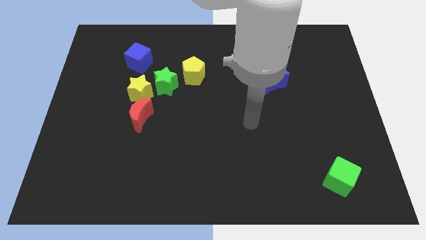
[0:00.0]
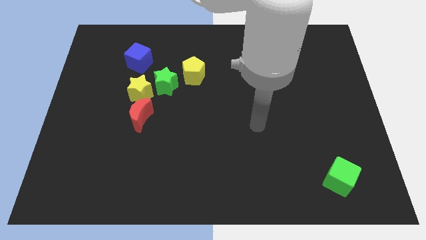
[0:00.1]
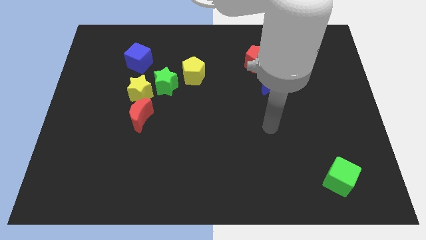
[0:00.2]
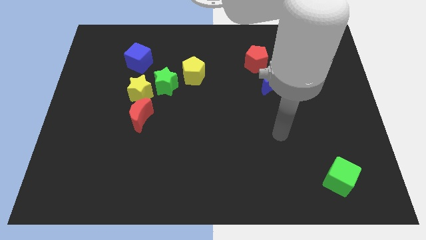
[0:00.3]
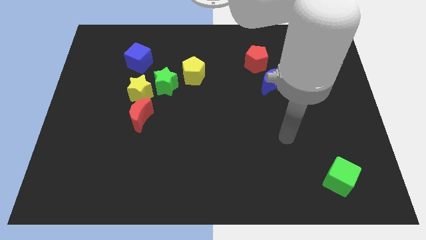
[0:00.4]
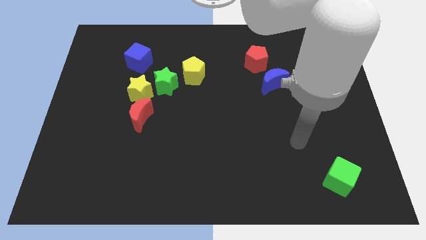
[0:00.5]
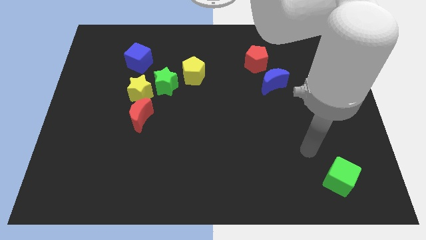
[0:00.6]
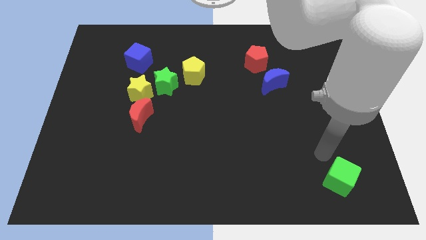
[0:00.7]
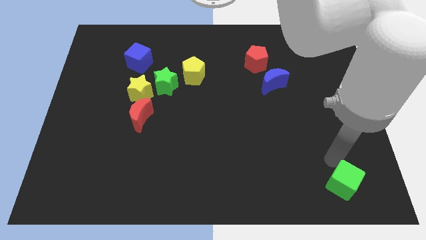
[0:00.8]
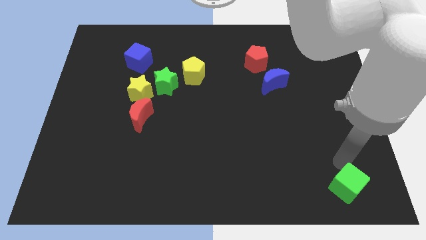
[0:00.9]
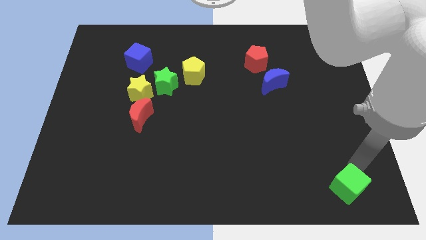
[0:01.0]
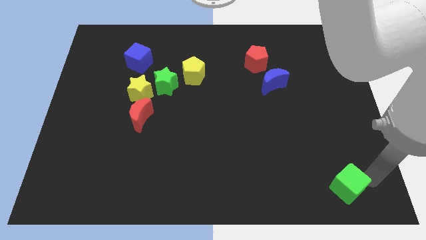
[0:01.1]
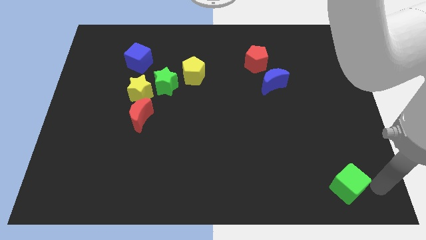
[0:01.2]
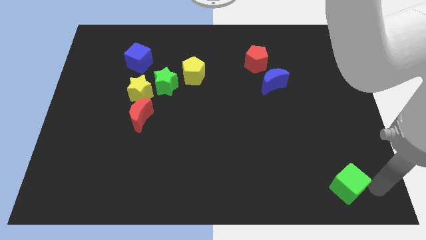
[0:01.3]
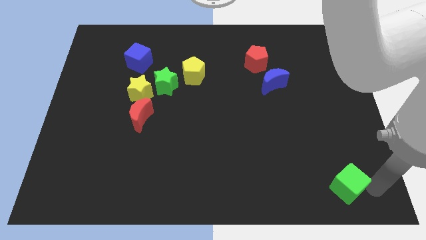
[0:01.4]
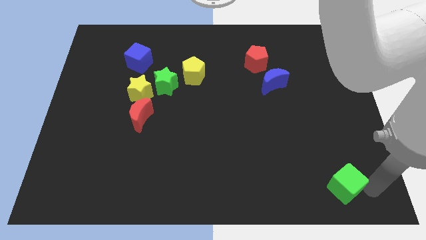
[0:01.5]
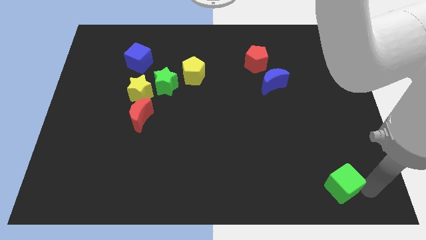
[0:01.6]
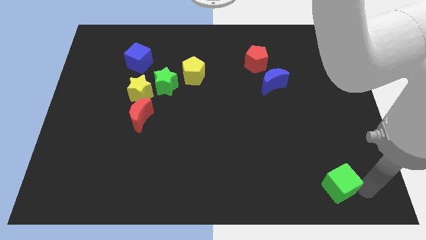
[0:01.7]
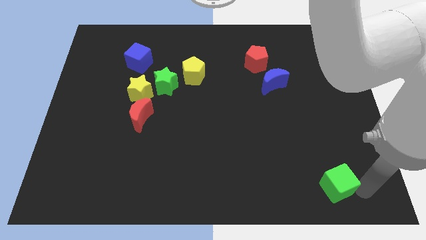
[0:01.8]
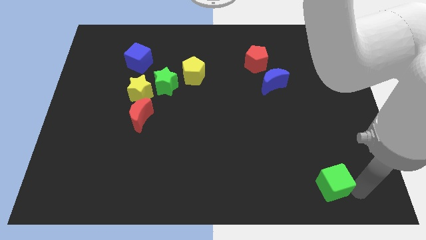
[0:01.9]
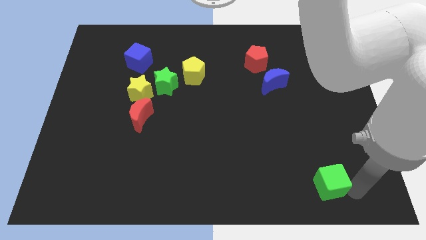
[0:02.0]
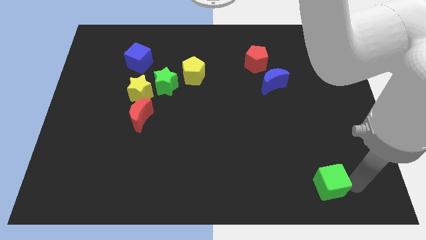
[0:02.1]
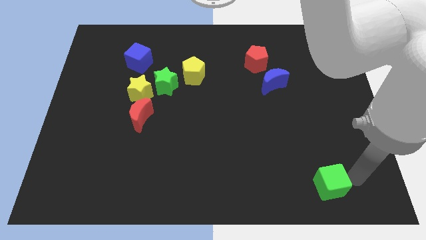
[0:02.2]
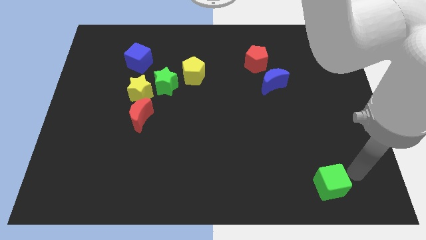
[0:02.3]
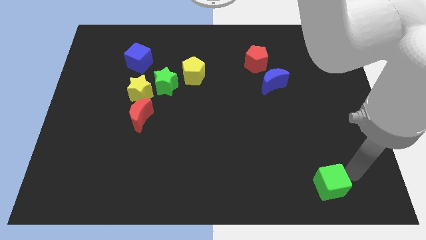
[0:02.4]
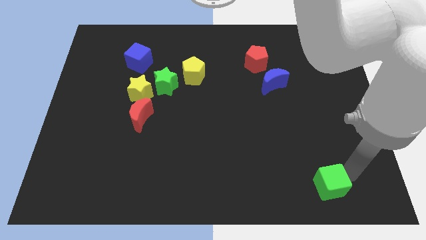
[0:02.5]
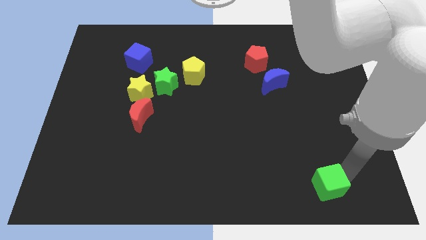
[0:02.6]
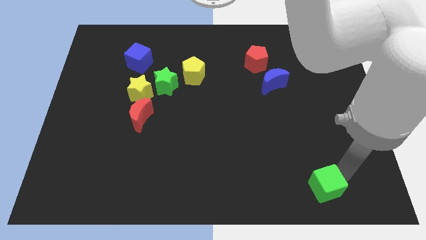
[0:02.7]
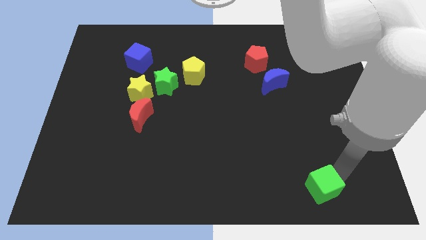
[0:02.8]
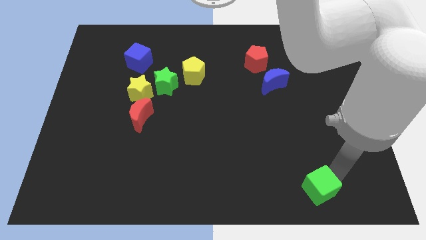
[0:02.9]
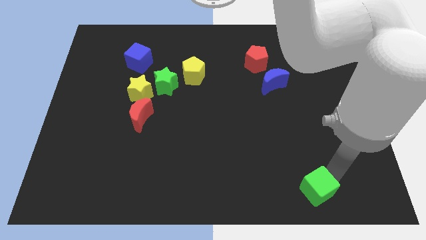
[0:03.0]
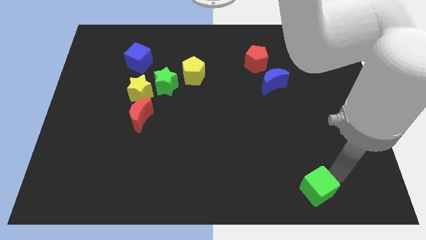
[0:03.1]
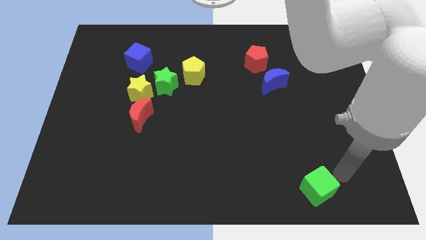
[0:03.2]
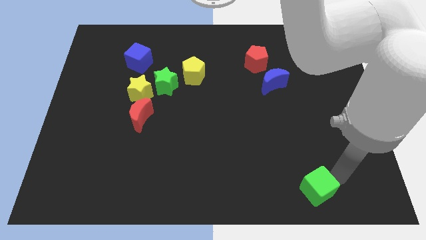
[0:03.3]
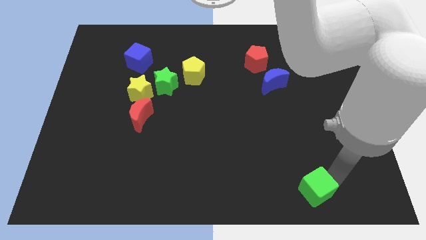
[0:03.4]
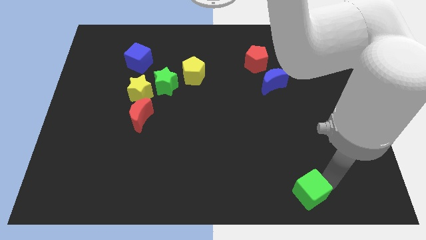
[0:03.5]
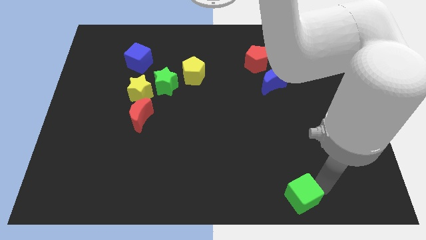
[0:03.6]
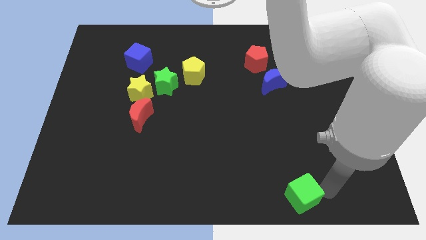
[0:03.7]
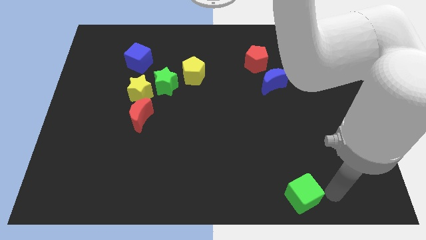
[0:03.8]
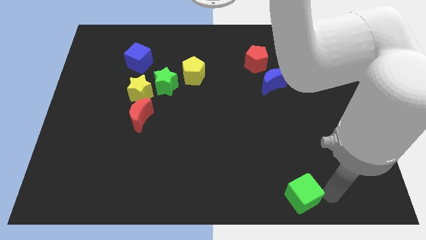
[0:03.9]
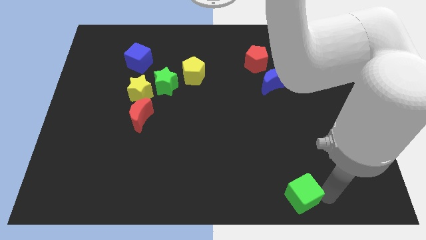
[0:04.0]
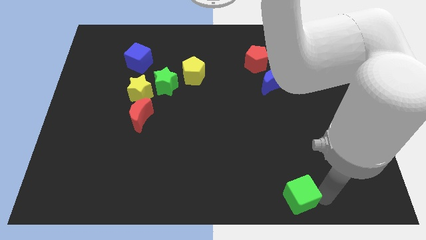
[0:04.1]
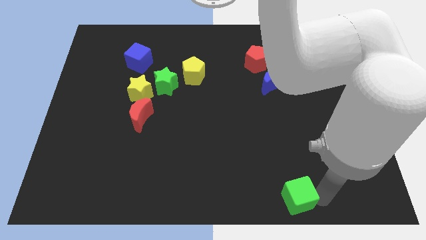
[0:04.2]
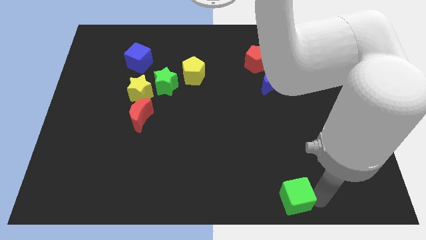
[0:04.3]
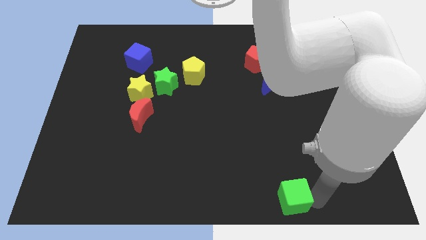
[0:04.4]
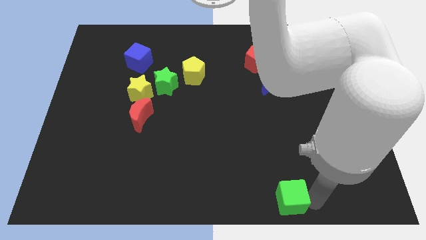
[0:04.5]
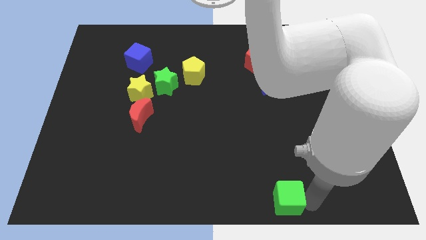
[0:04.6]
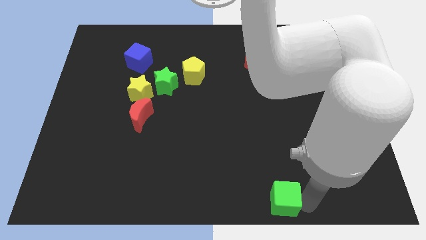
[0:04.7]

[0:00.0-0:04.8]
slide the green cube to the bottom side

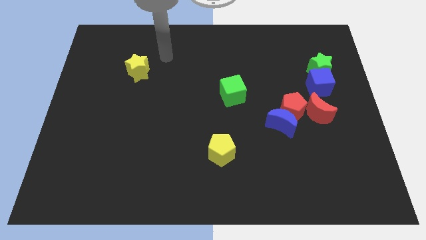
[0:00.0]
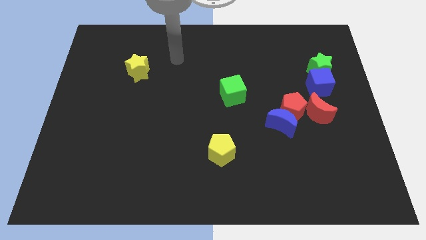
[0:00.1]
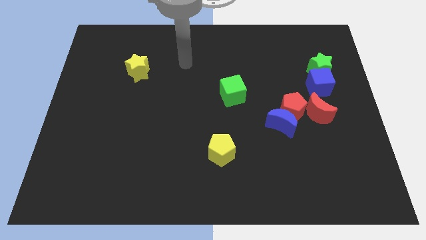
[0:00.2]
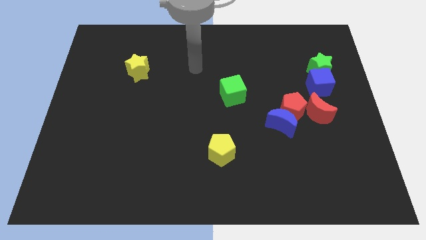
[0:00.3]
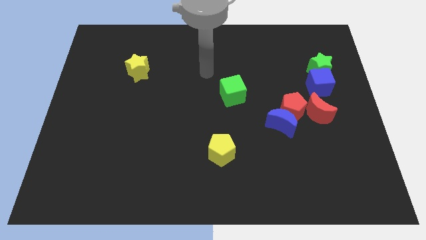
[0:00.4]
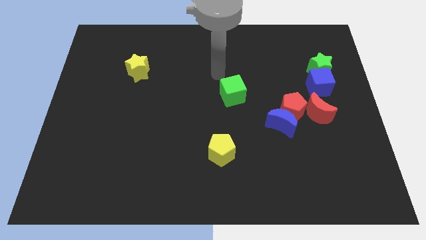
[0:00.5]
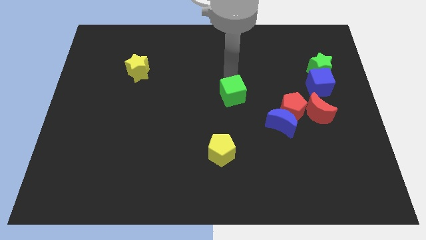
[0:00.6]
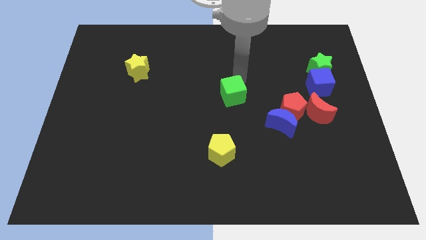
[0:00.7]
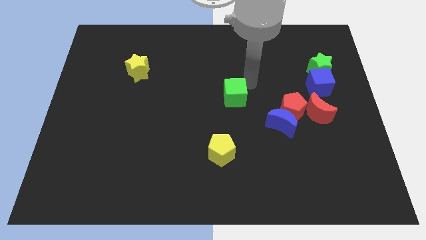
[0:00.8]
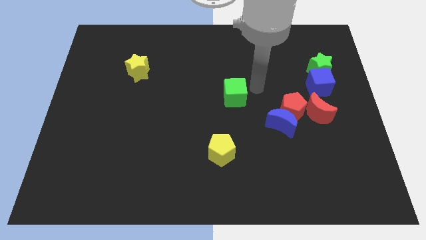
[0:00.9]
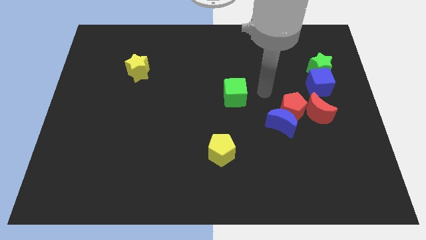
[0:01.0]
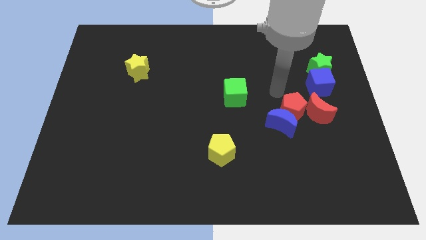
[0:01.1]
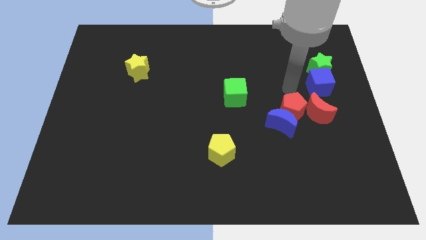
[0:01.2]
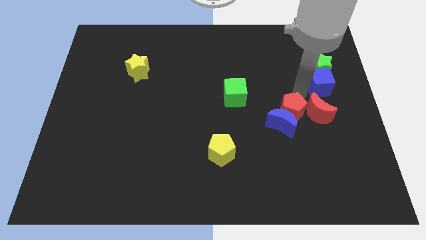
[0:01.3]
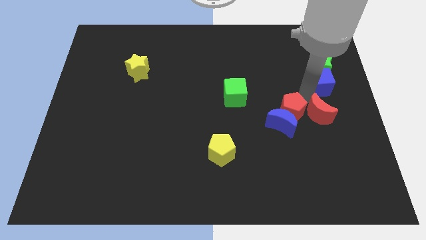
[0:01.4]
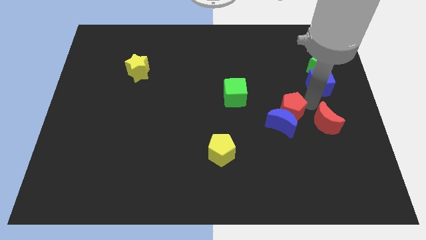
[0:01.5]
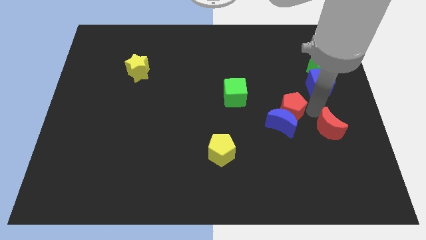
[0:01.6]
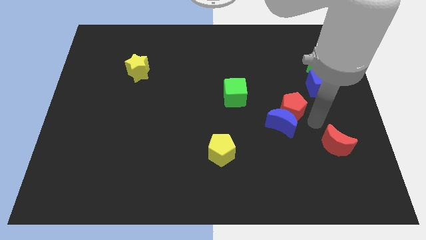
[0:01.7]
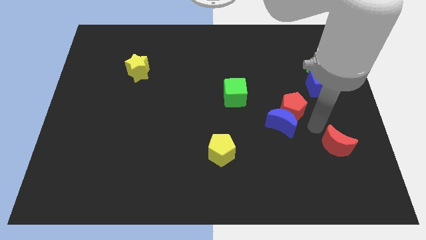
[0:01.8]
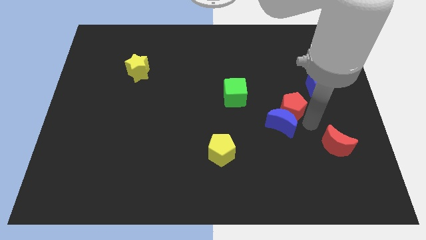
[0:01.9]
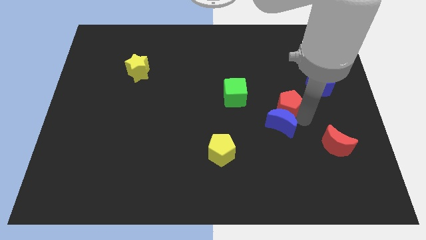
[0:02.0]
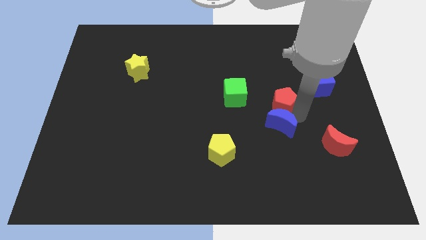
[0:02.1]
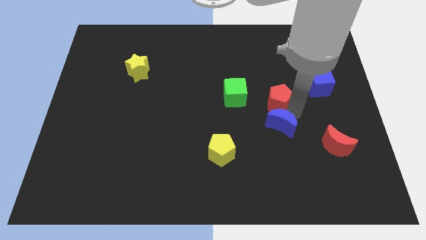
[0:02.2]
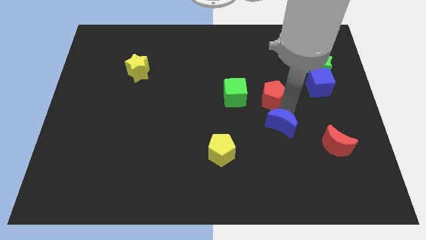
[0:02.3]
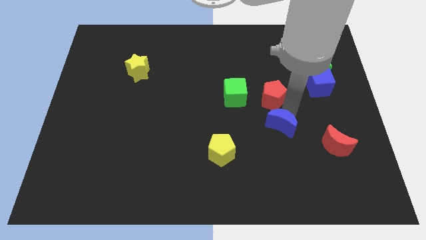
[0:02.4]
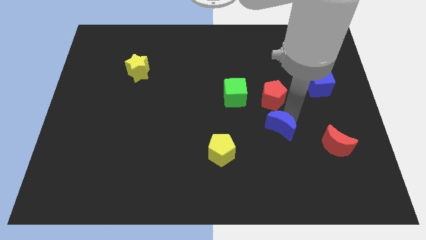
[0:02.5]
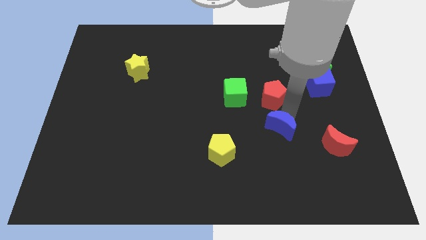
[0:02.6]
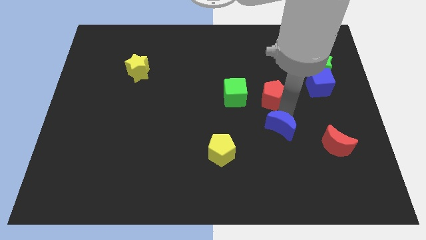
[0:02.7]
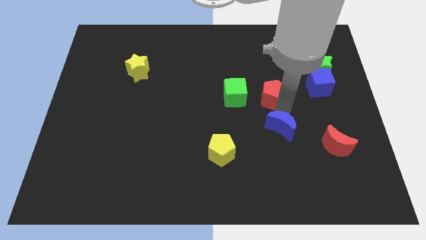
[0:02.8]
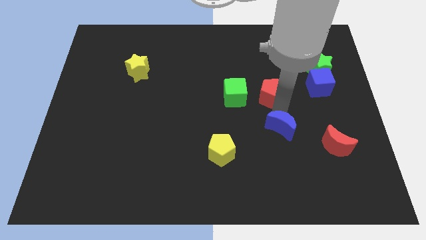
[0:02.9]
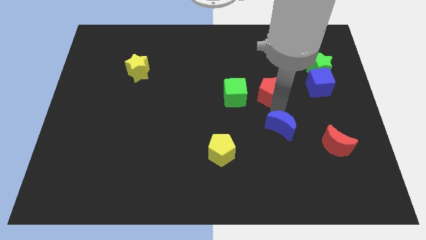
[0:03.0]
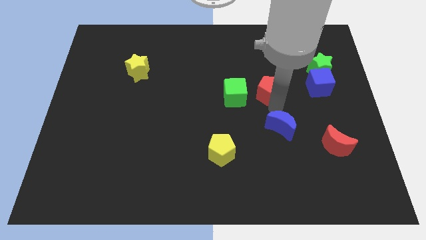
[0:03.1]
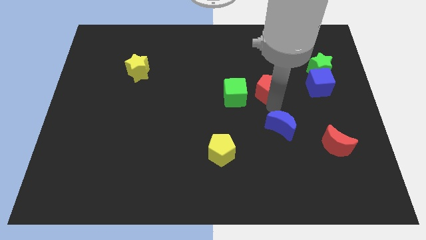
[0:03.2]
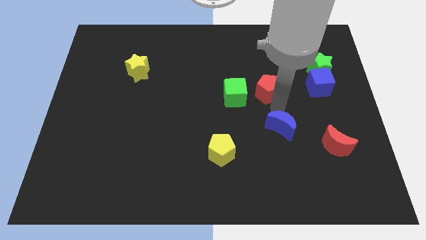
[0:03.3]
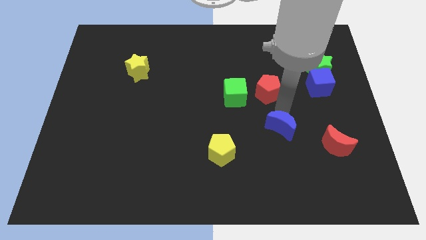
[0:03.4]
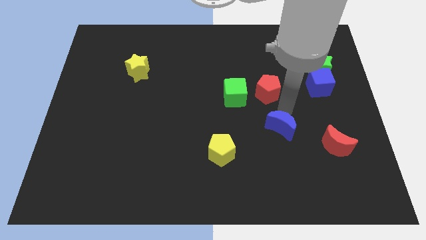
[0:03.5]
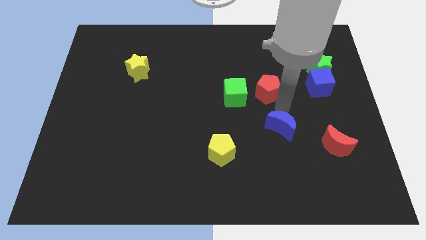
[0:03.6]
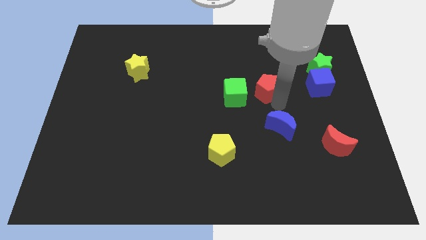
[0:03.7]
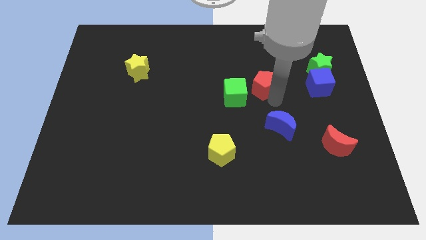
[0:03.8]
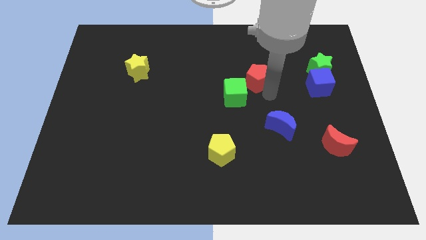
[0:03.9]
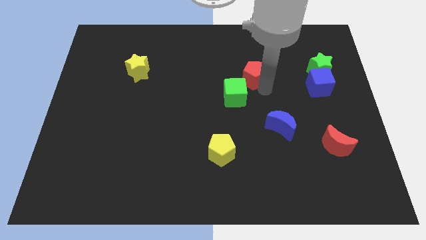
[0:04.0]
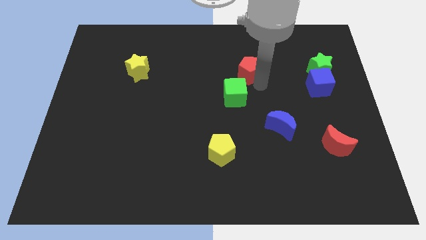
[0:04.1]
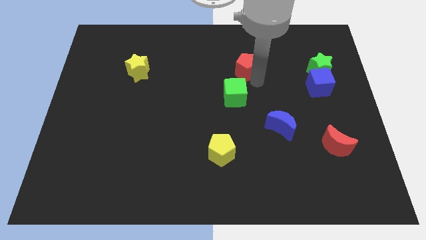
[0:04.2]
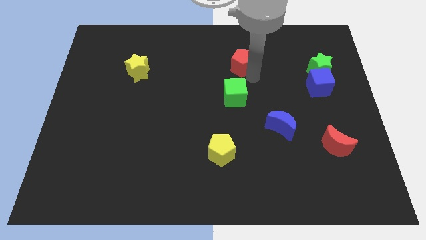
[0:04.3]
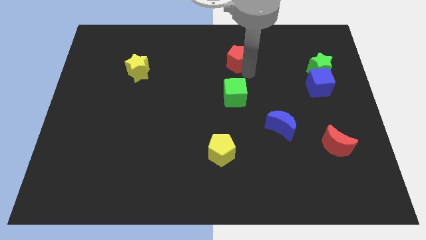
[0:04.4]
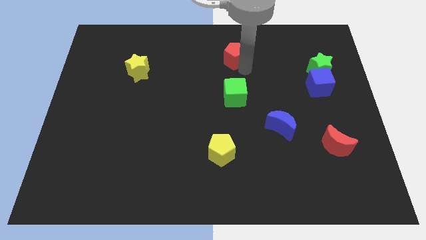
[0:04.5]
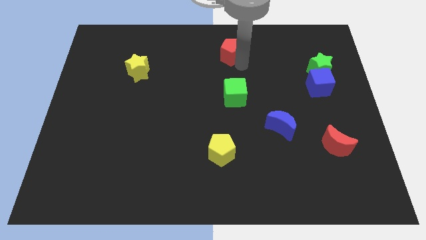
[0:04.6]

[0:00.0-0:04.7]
push the red pentagon to the top side
